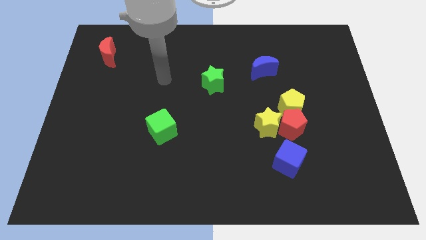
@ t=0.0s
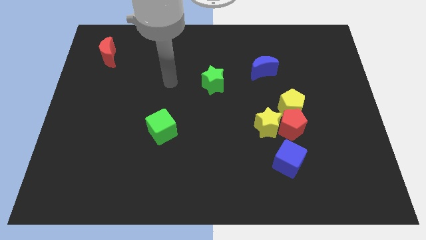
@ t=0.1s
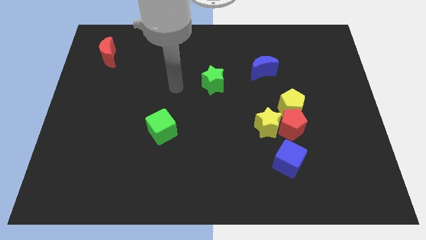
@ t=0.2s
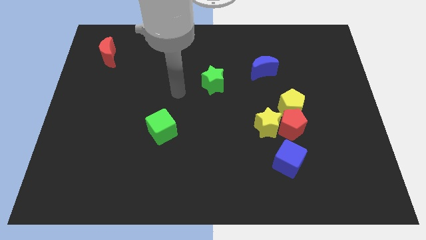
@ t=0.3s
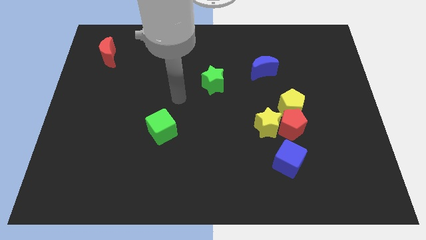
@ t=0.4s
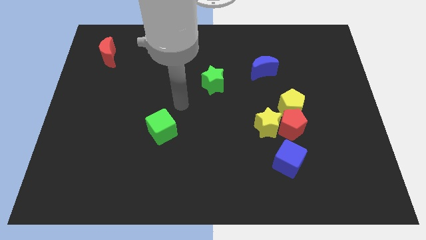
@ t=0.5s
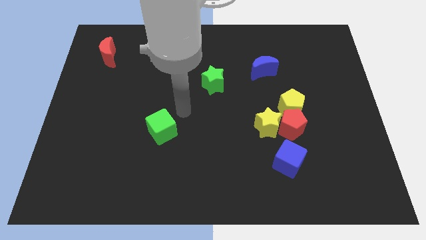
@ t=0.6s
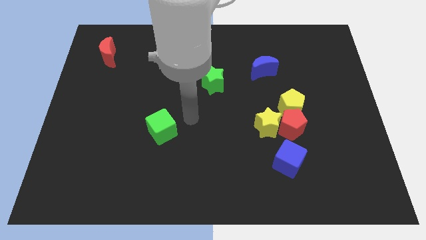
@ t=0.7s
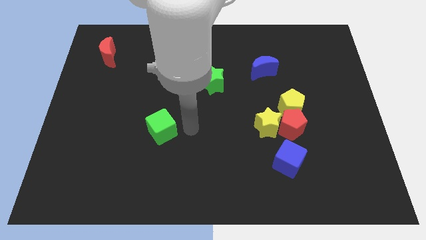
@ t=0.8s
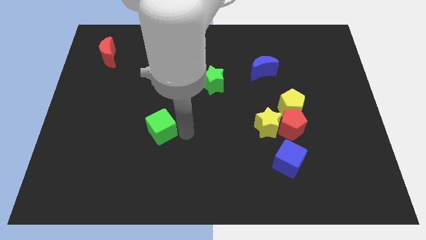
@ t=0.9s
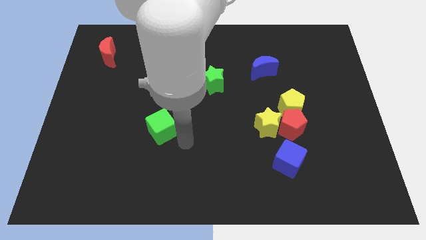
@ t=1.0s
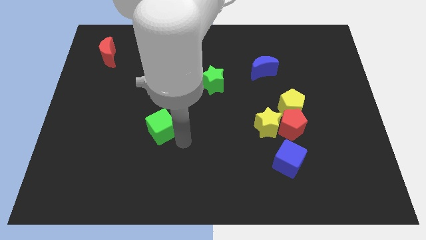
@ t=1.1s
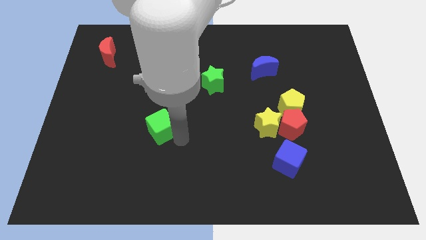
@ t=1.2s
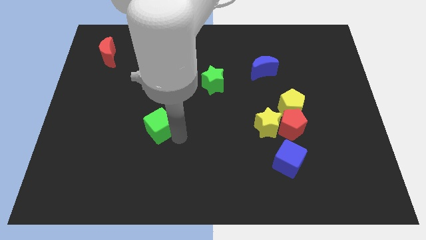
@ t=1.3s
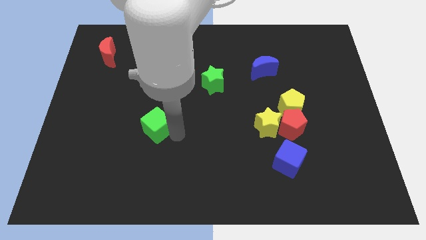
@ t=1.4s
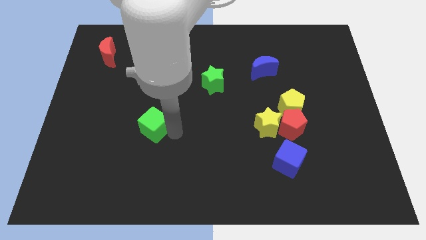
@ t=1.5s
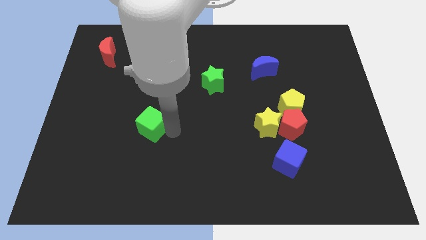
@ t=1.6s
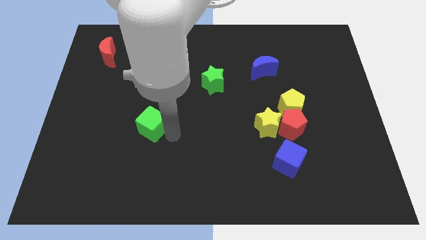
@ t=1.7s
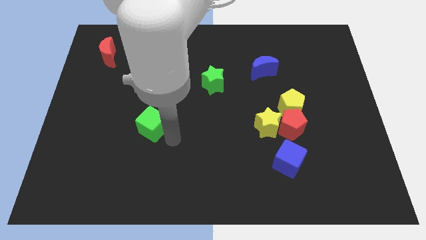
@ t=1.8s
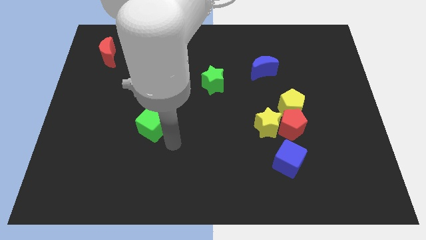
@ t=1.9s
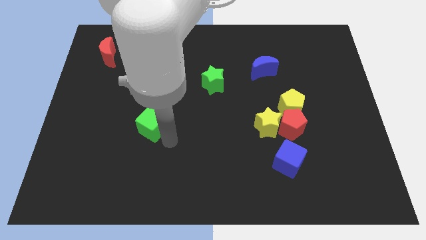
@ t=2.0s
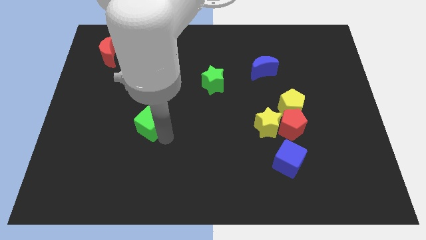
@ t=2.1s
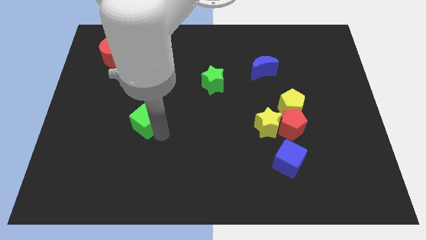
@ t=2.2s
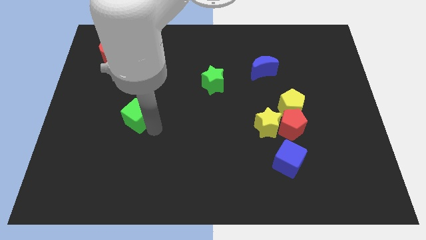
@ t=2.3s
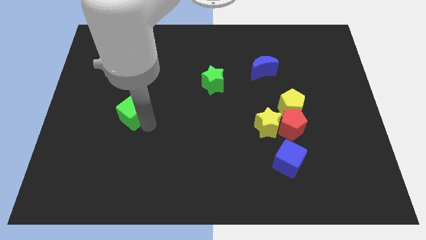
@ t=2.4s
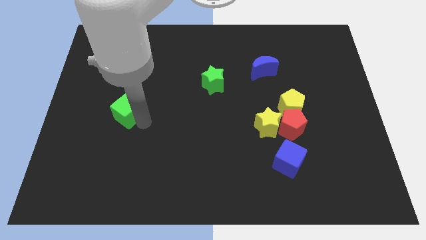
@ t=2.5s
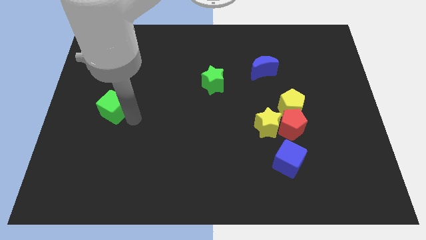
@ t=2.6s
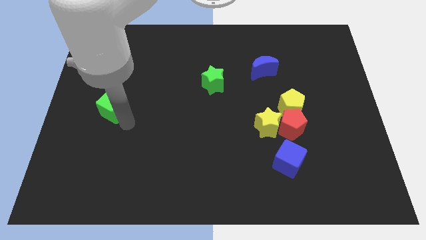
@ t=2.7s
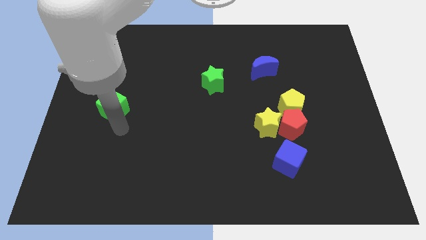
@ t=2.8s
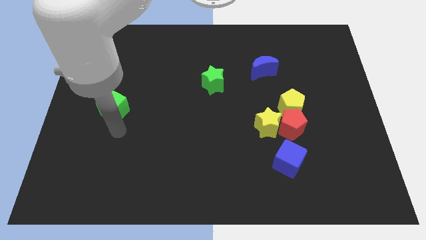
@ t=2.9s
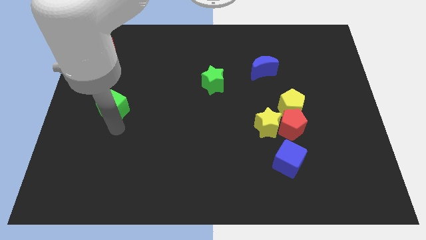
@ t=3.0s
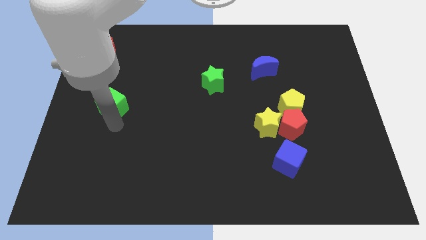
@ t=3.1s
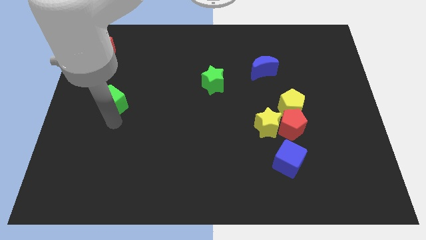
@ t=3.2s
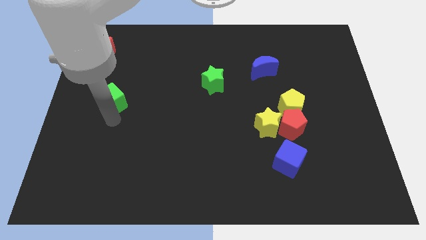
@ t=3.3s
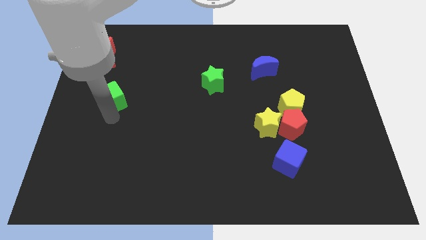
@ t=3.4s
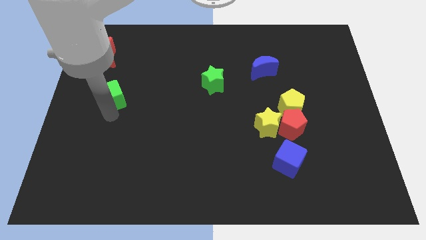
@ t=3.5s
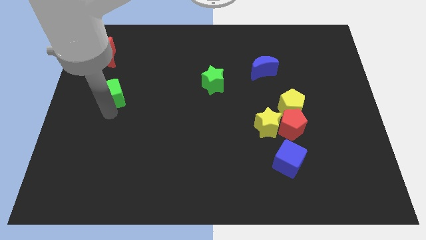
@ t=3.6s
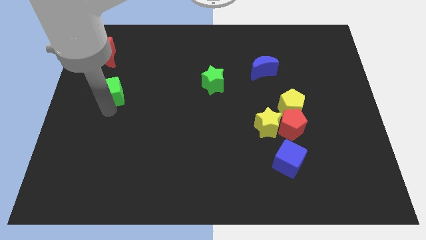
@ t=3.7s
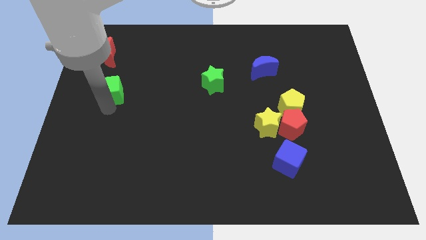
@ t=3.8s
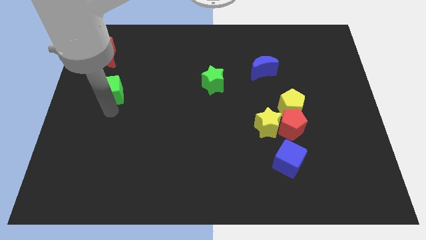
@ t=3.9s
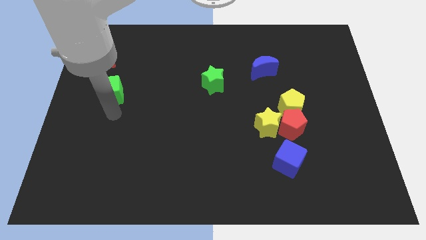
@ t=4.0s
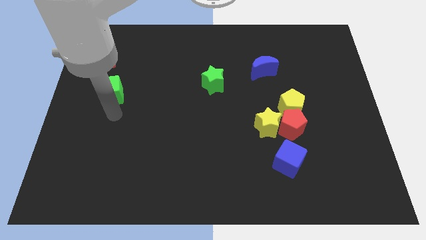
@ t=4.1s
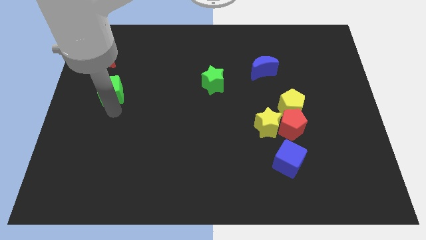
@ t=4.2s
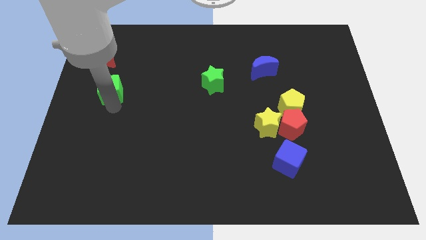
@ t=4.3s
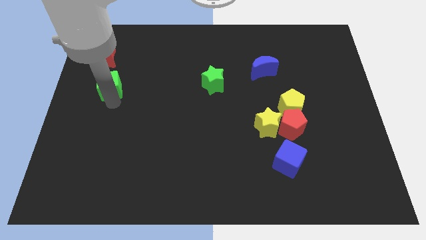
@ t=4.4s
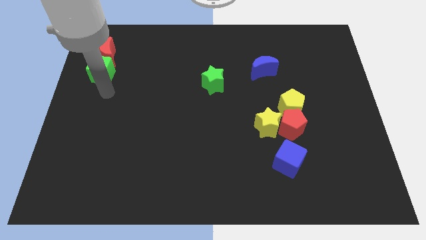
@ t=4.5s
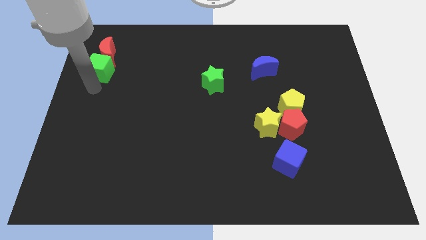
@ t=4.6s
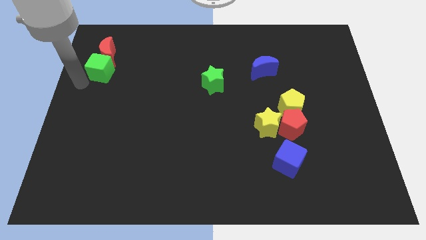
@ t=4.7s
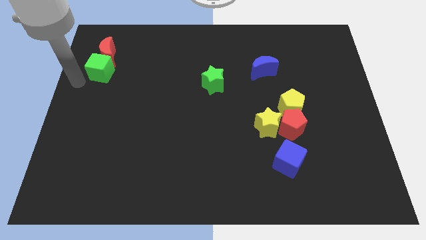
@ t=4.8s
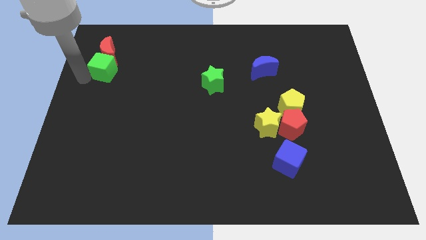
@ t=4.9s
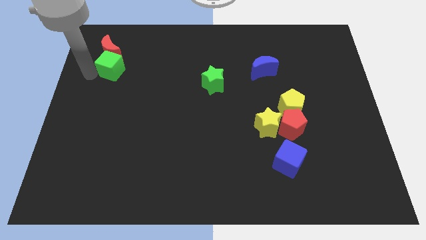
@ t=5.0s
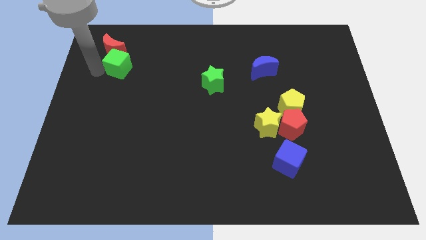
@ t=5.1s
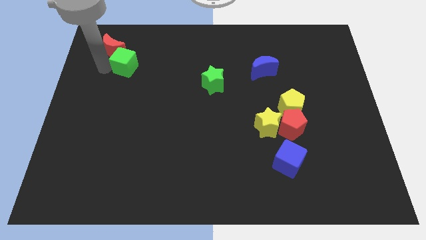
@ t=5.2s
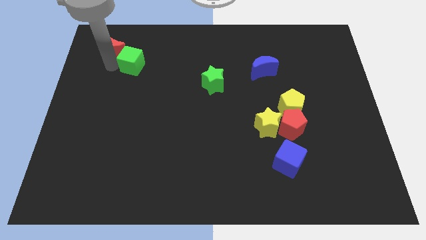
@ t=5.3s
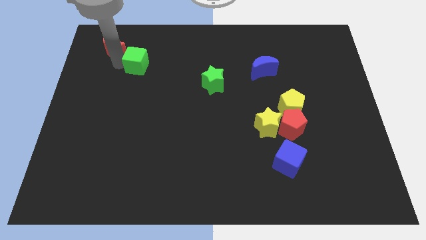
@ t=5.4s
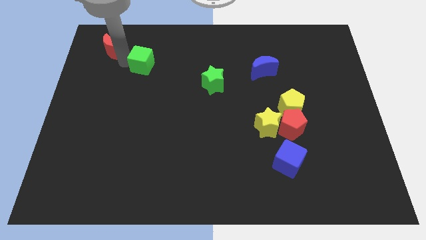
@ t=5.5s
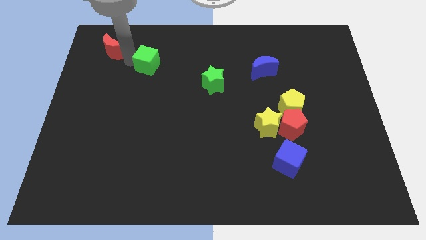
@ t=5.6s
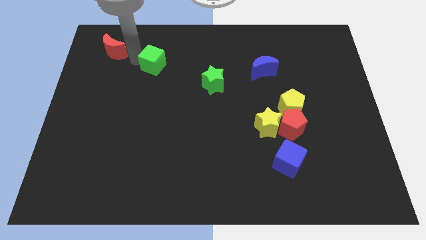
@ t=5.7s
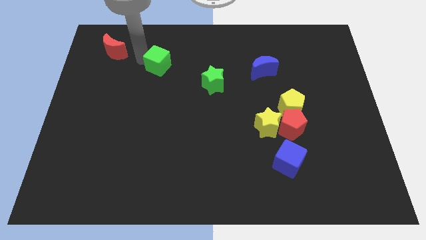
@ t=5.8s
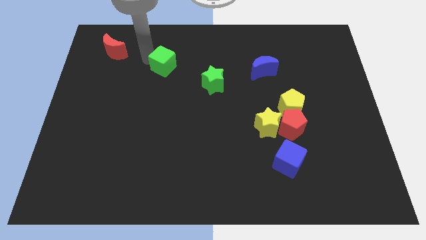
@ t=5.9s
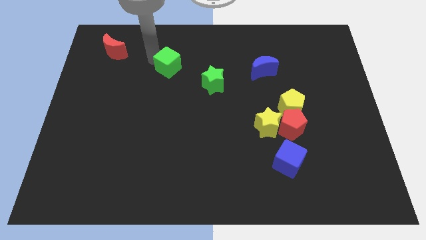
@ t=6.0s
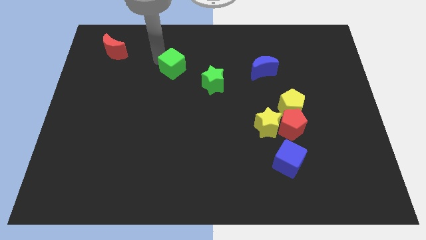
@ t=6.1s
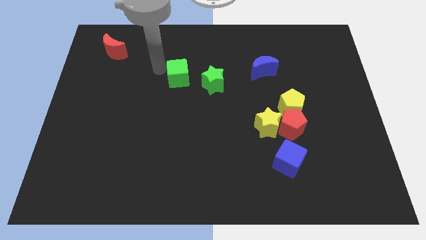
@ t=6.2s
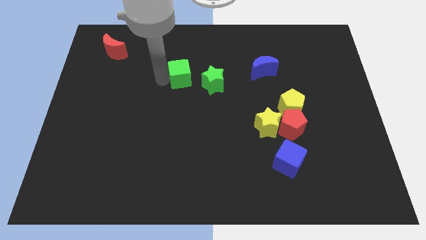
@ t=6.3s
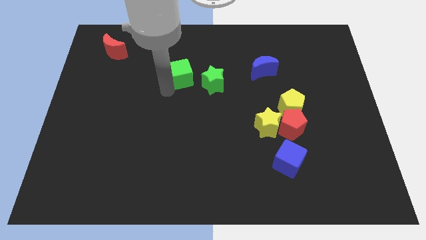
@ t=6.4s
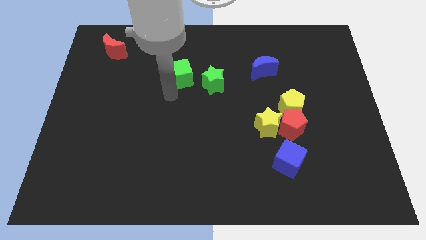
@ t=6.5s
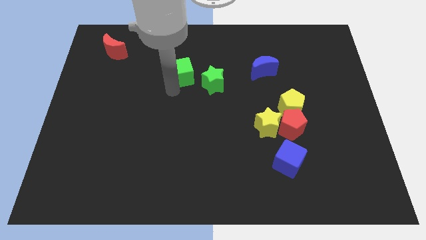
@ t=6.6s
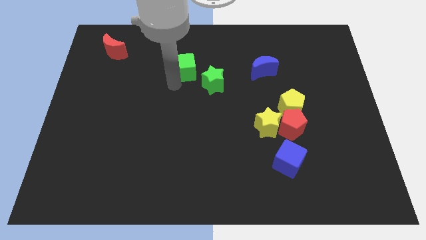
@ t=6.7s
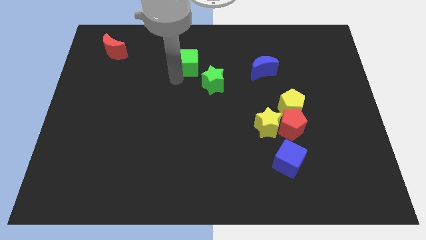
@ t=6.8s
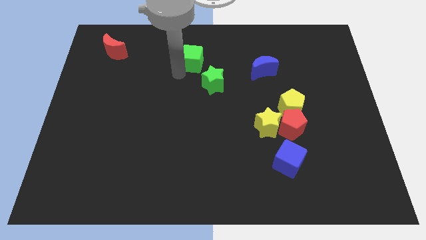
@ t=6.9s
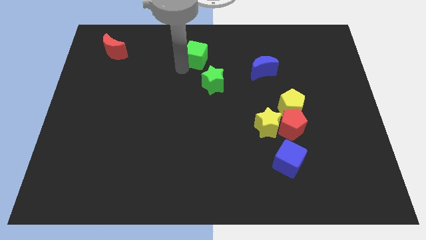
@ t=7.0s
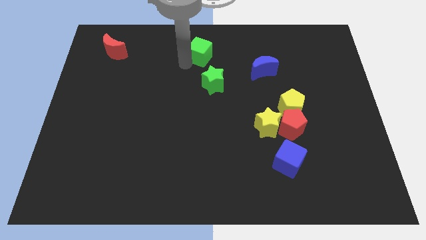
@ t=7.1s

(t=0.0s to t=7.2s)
put the green cube to the top
